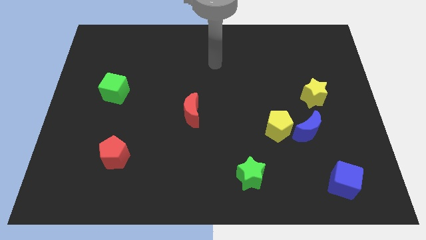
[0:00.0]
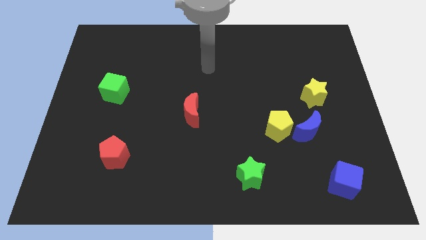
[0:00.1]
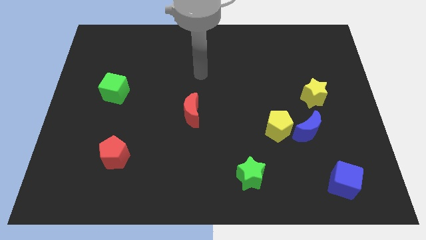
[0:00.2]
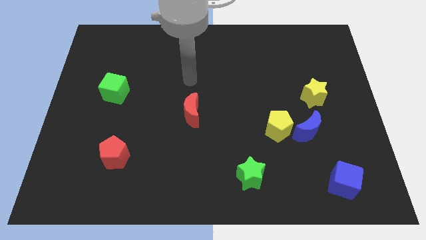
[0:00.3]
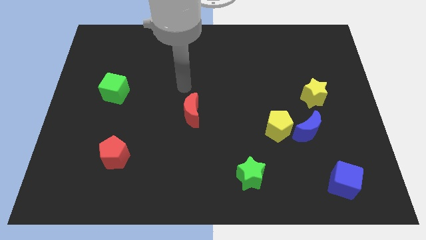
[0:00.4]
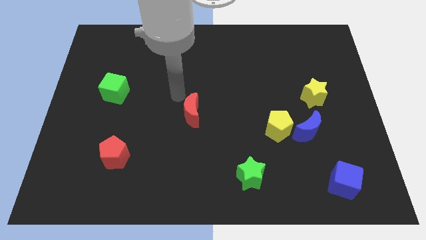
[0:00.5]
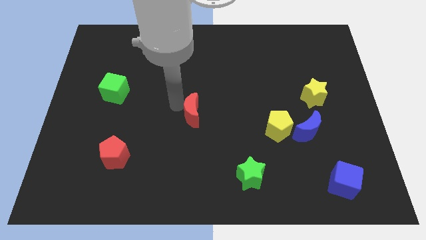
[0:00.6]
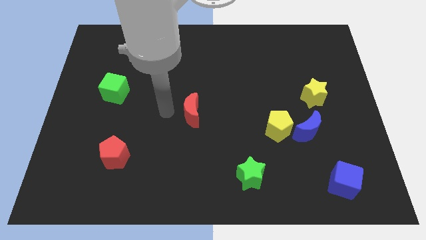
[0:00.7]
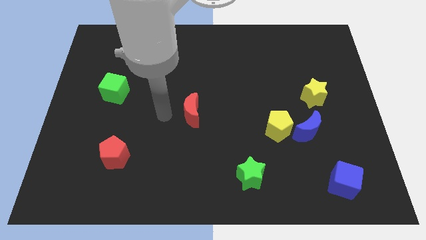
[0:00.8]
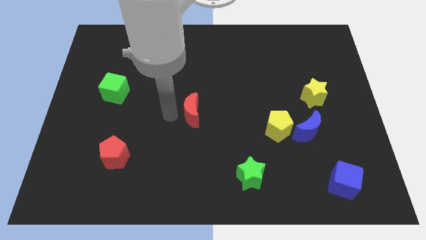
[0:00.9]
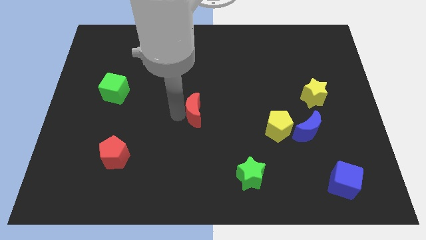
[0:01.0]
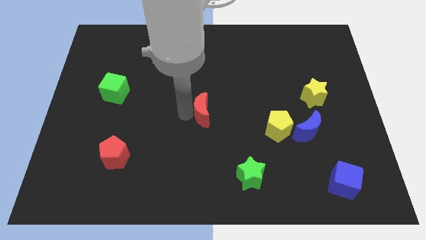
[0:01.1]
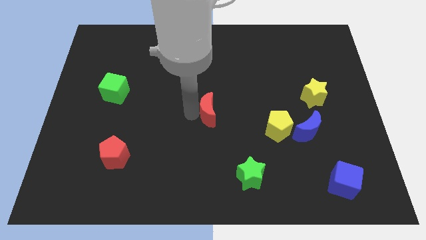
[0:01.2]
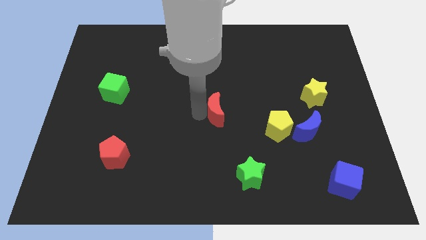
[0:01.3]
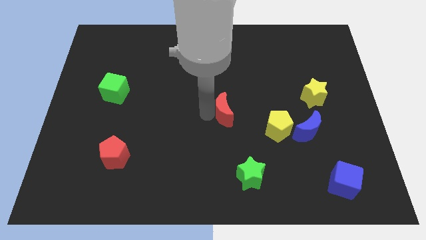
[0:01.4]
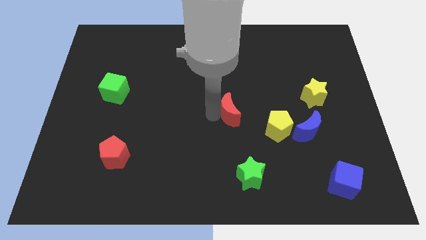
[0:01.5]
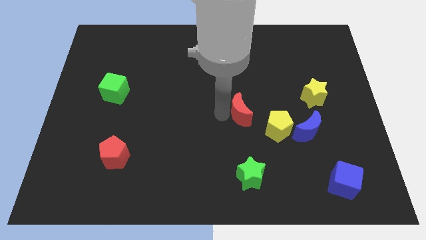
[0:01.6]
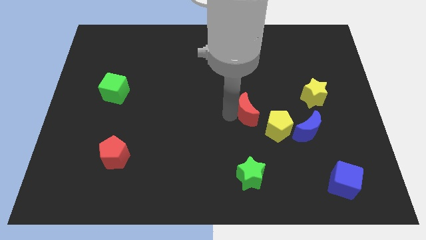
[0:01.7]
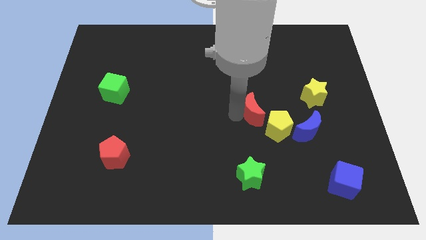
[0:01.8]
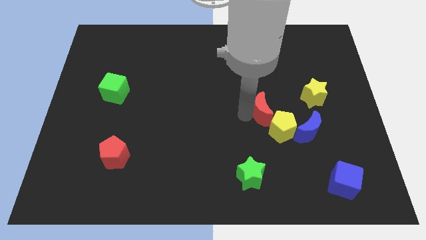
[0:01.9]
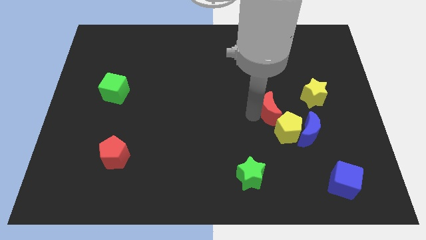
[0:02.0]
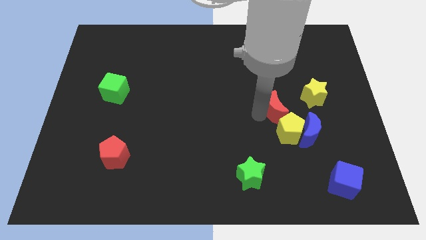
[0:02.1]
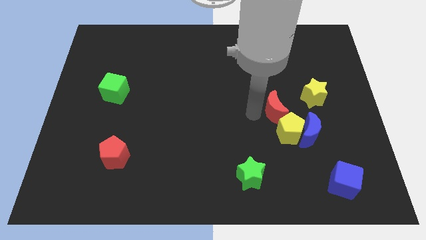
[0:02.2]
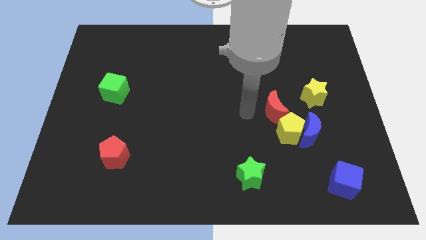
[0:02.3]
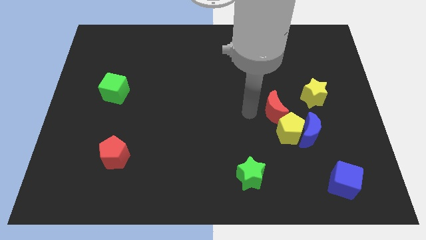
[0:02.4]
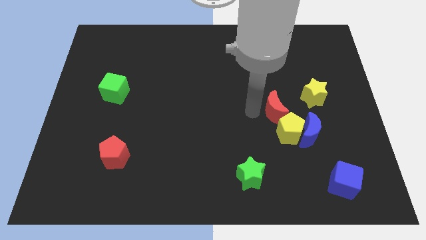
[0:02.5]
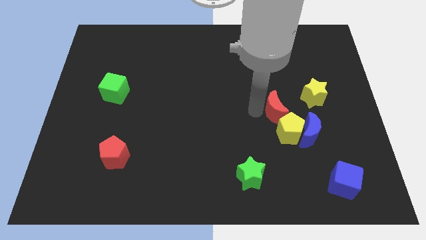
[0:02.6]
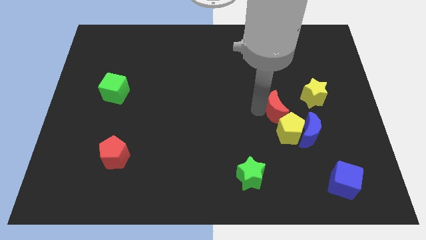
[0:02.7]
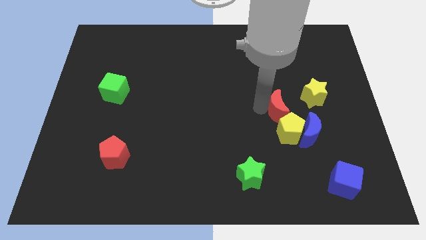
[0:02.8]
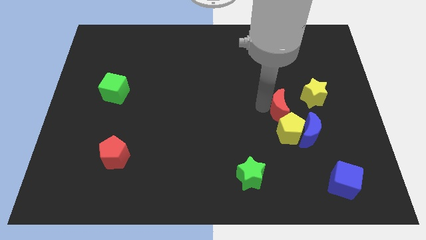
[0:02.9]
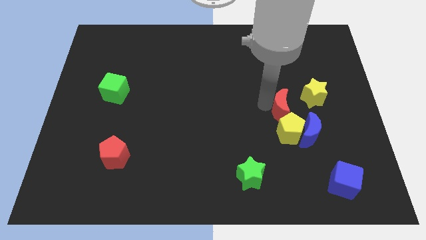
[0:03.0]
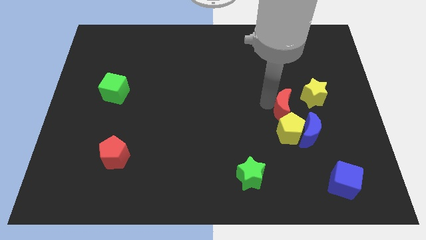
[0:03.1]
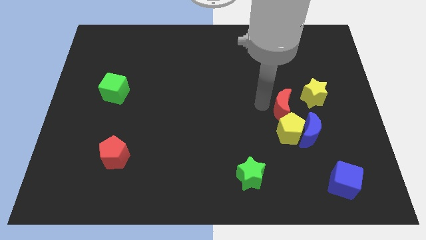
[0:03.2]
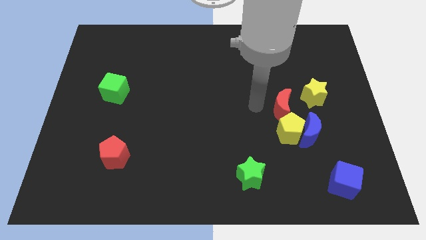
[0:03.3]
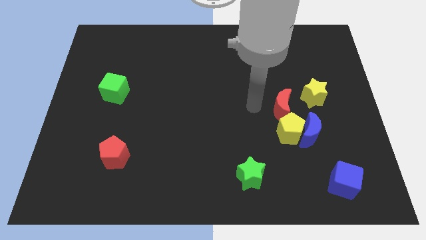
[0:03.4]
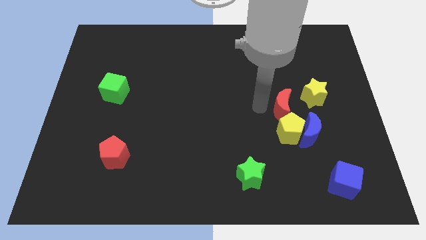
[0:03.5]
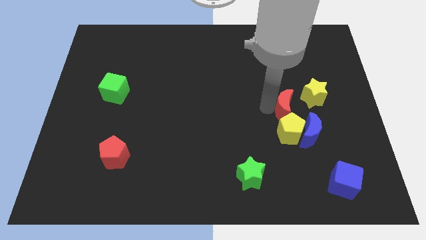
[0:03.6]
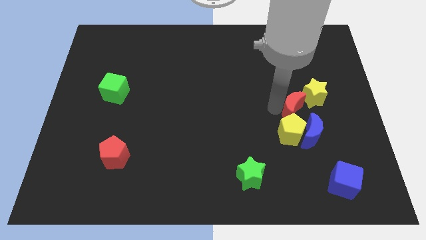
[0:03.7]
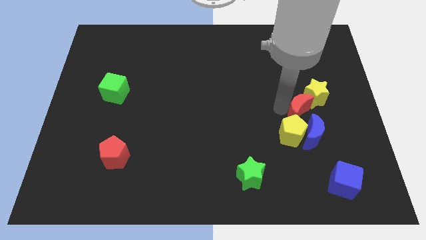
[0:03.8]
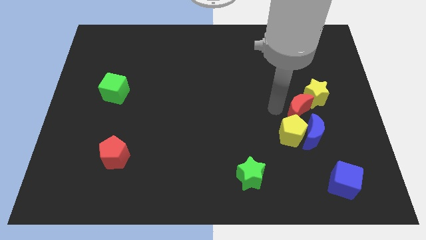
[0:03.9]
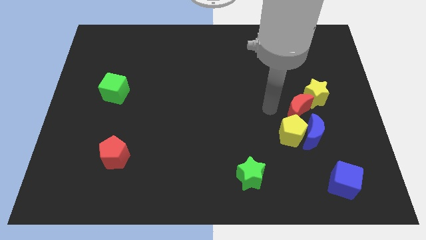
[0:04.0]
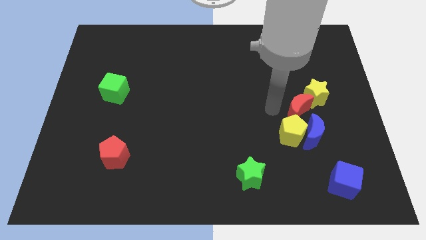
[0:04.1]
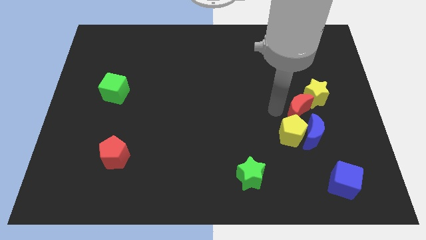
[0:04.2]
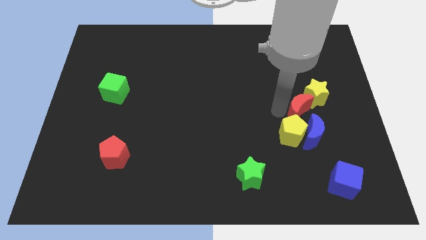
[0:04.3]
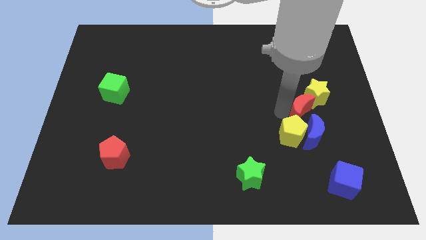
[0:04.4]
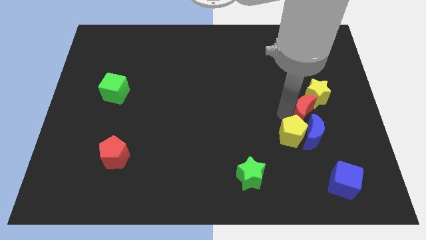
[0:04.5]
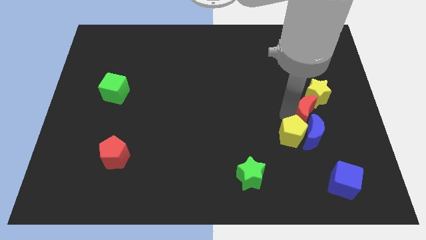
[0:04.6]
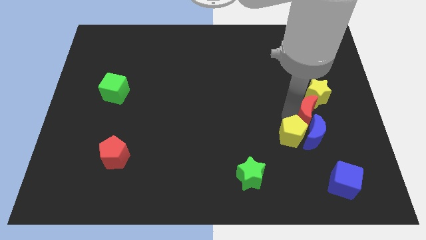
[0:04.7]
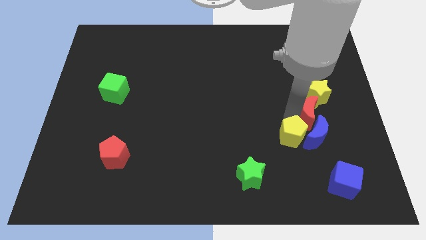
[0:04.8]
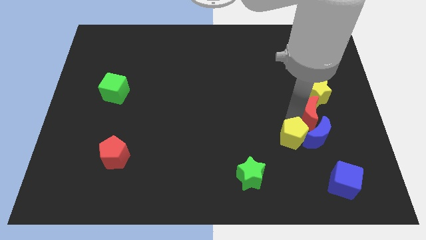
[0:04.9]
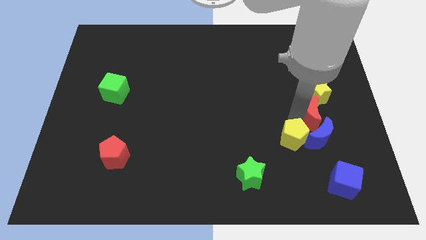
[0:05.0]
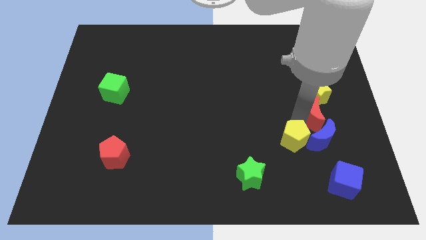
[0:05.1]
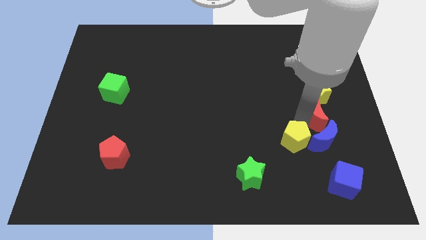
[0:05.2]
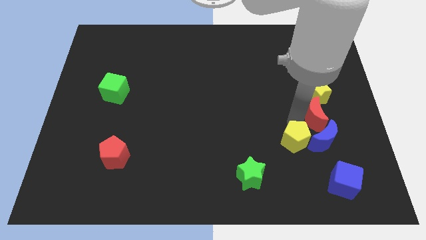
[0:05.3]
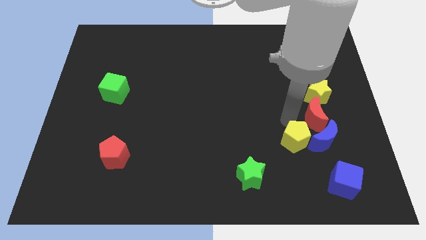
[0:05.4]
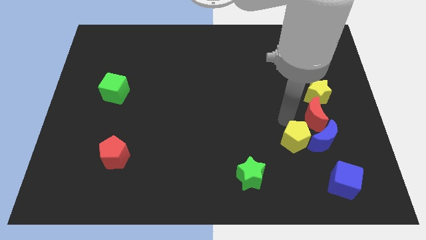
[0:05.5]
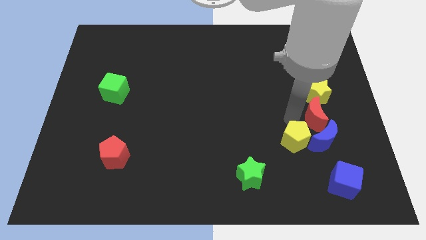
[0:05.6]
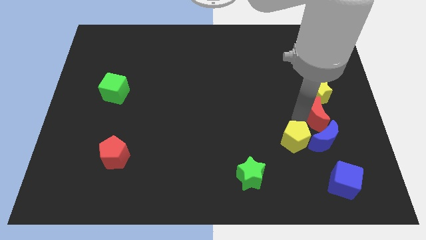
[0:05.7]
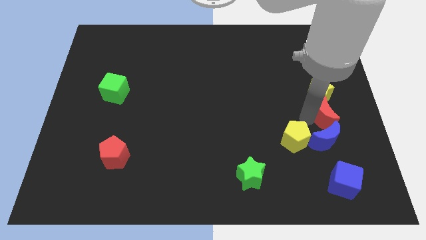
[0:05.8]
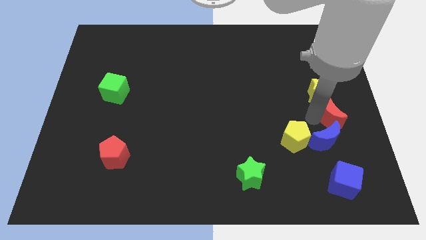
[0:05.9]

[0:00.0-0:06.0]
slide the red moon to the right side of the board
